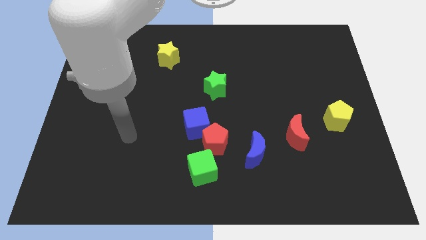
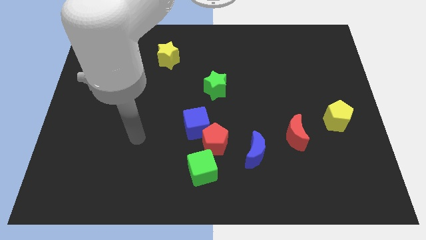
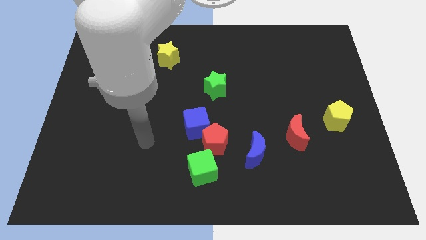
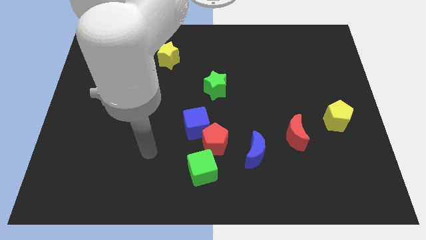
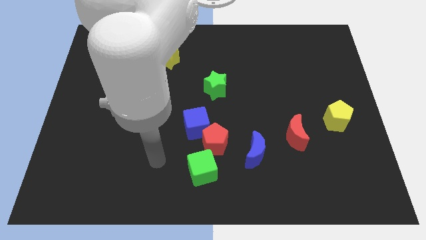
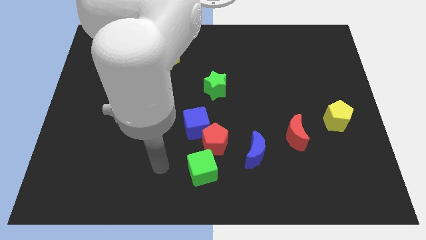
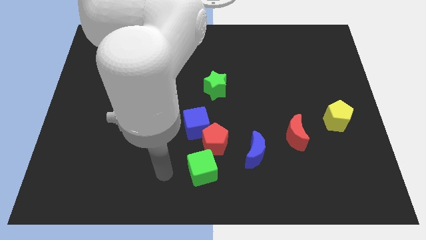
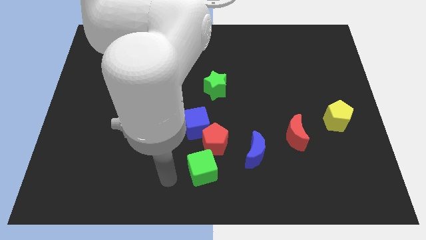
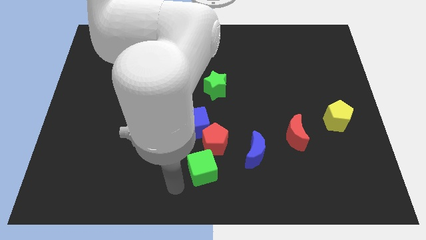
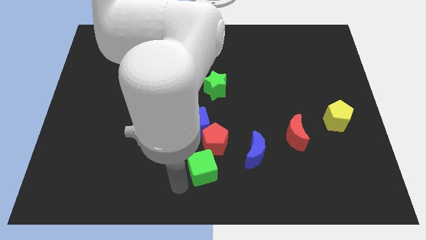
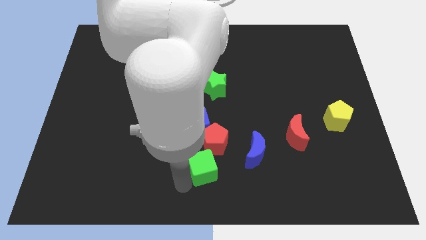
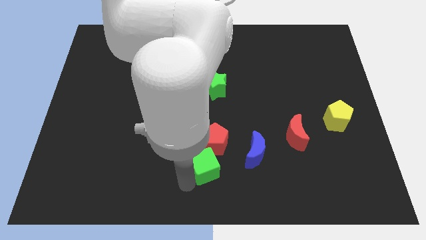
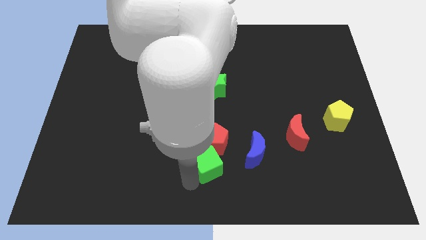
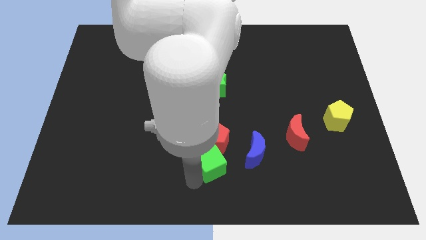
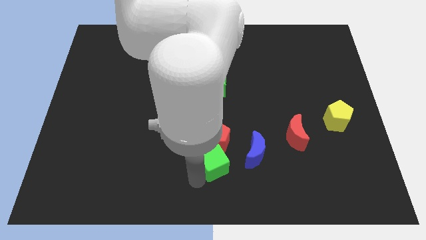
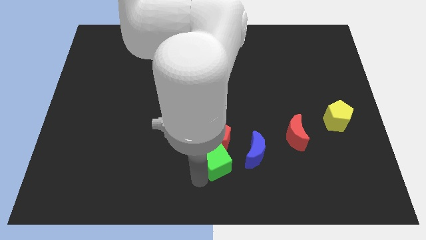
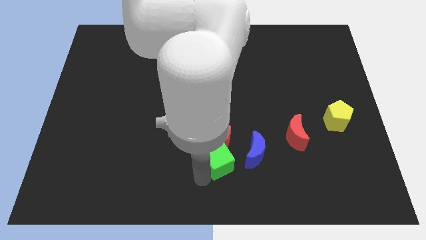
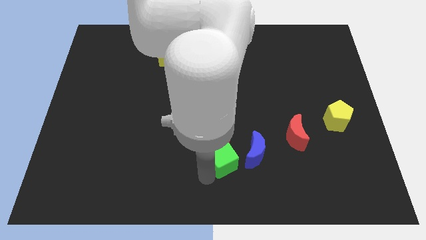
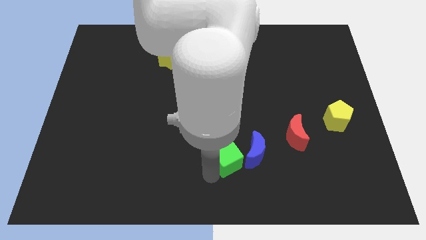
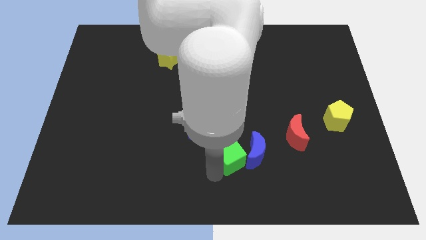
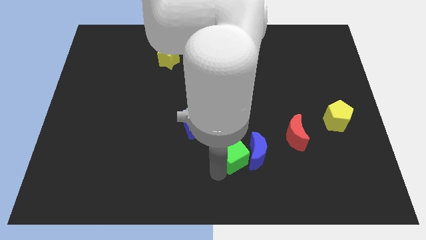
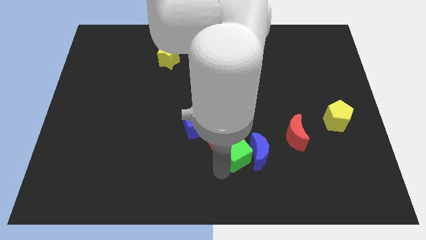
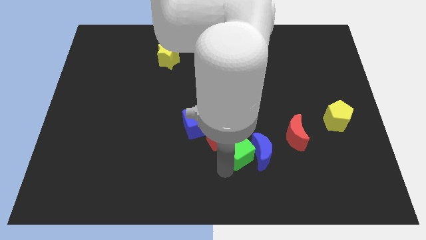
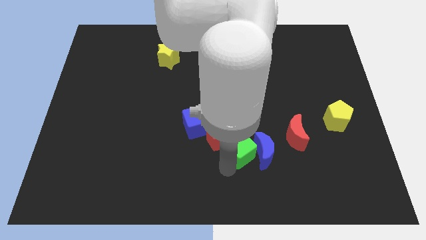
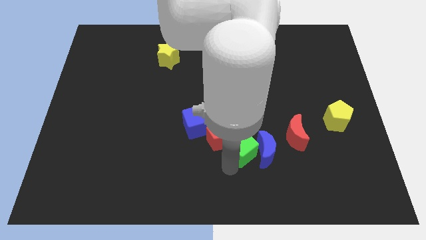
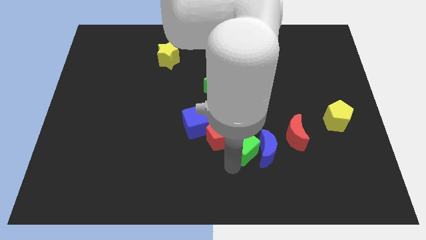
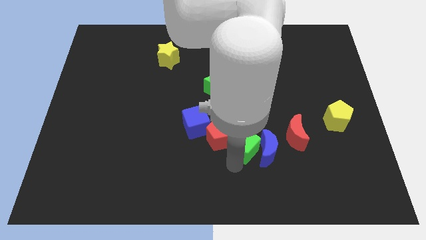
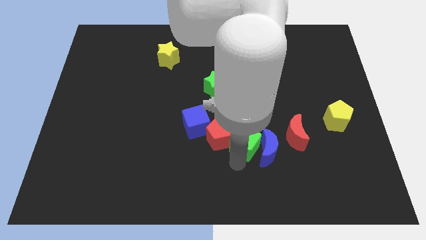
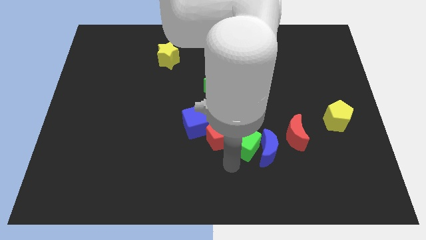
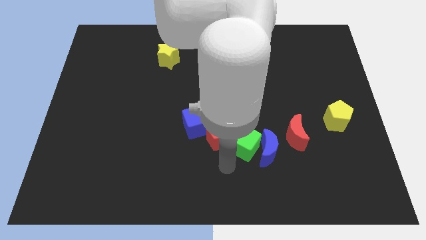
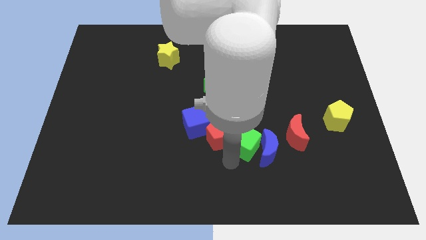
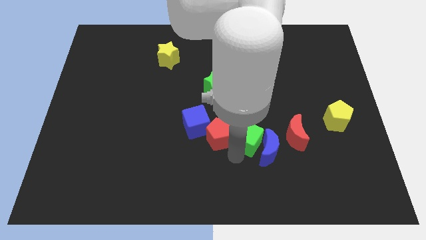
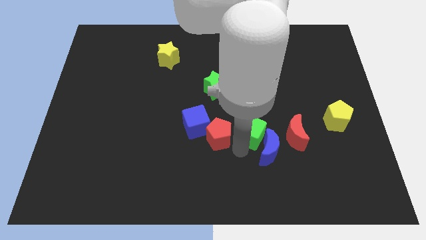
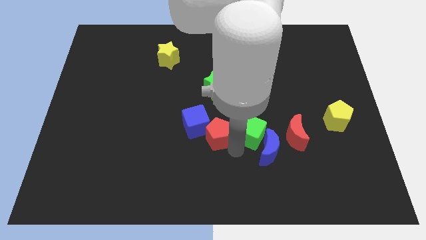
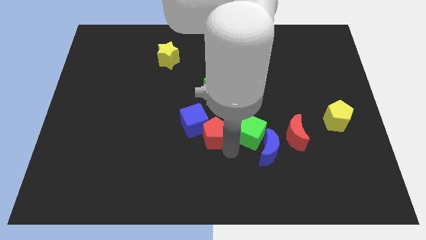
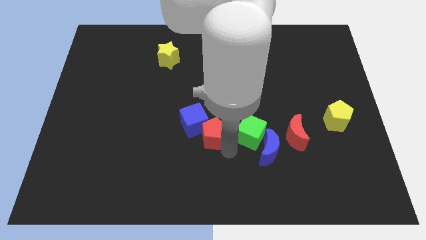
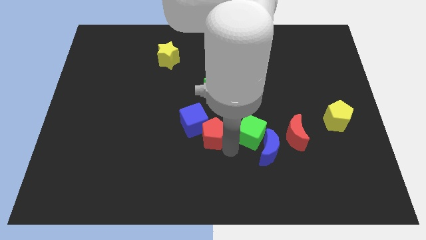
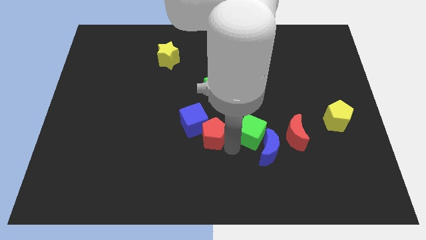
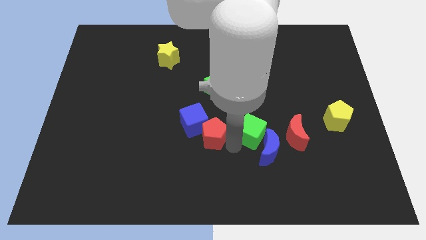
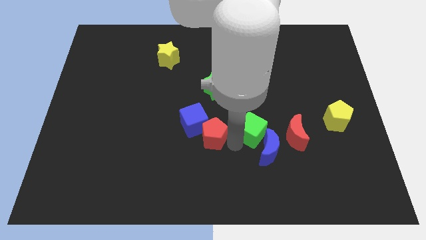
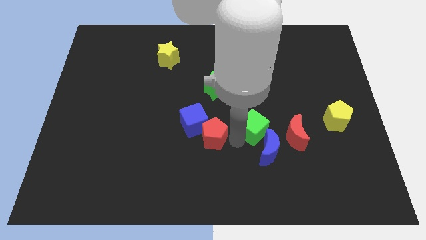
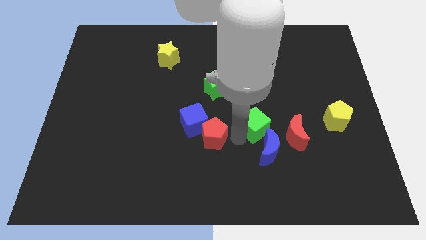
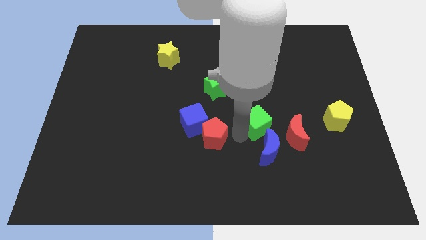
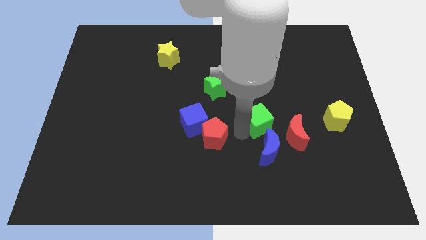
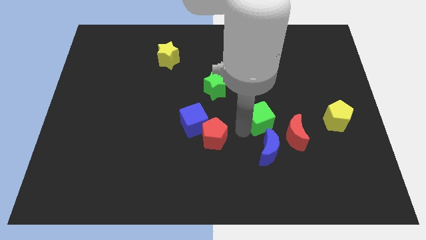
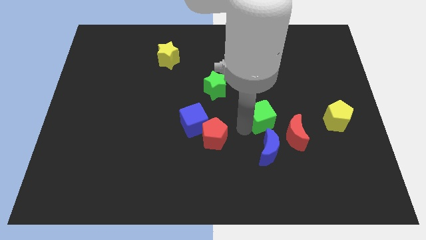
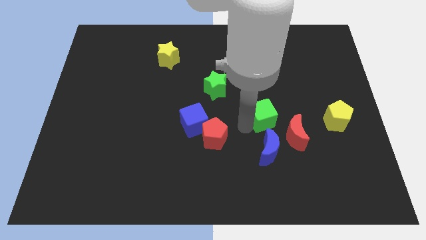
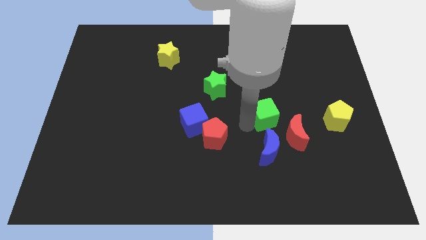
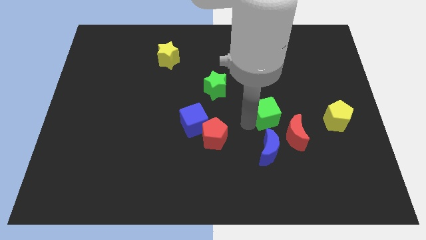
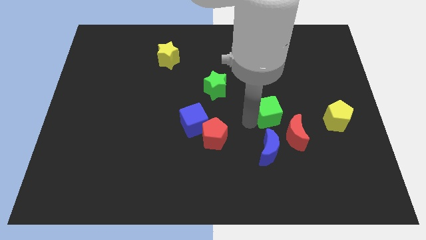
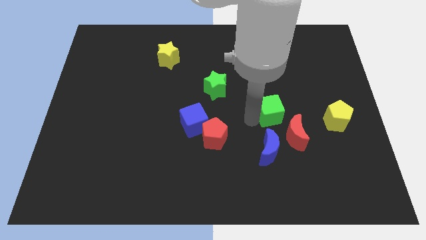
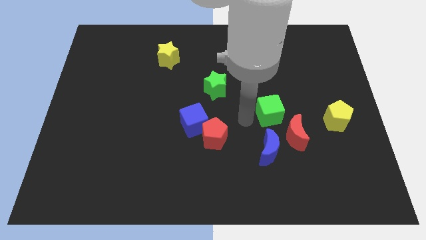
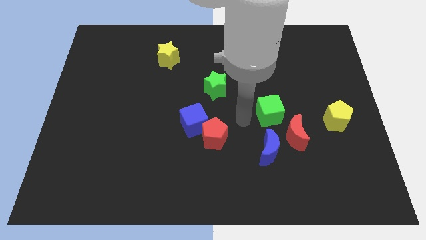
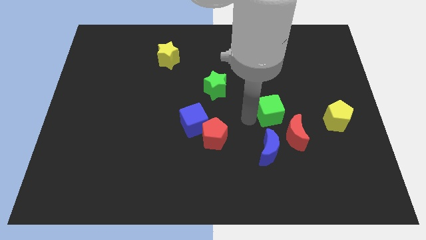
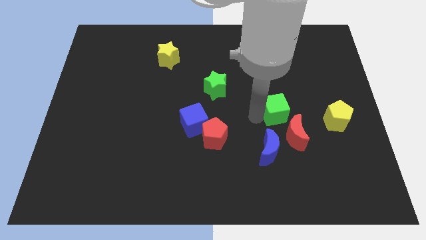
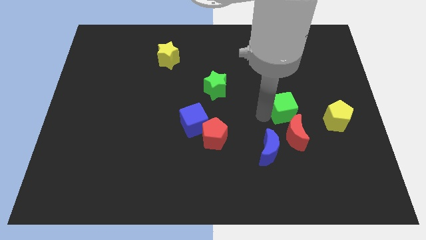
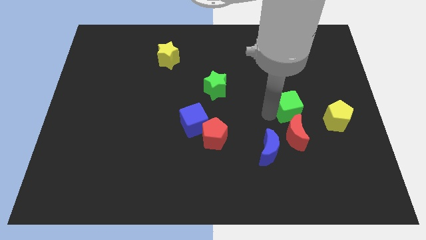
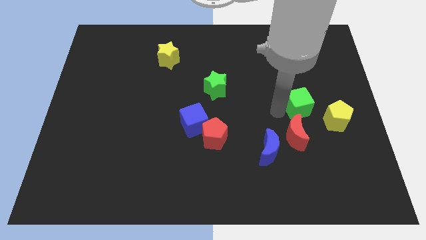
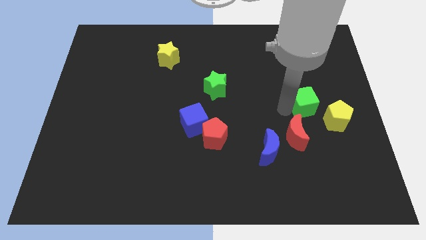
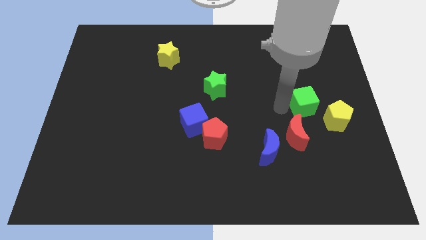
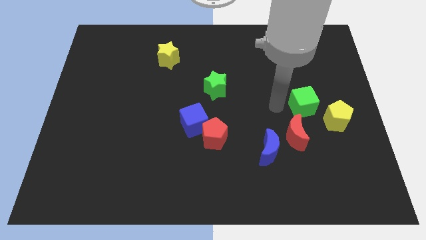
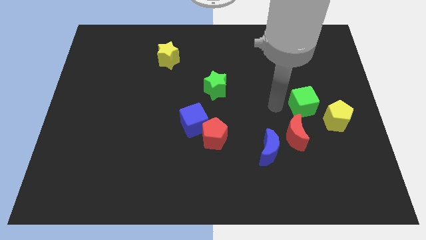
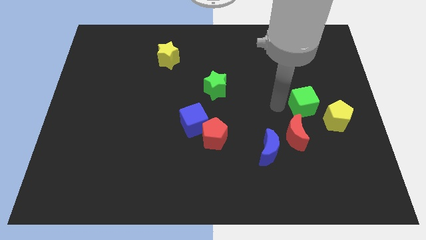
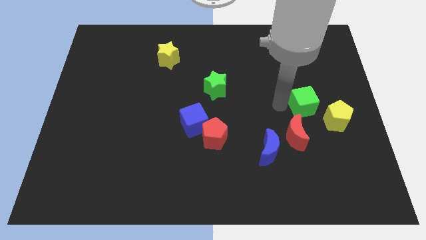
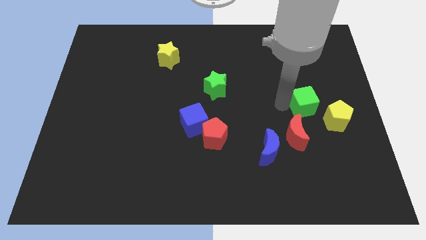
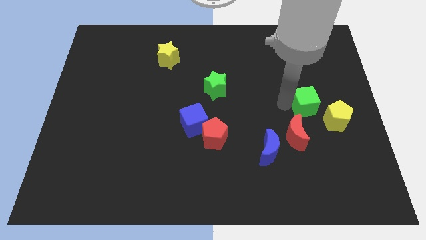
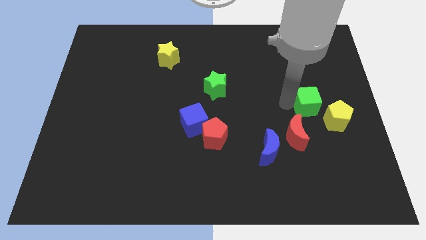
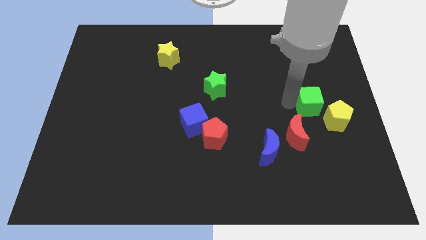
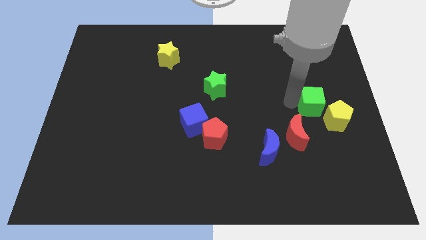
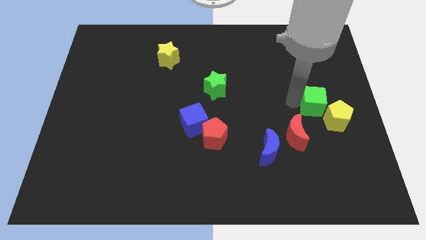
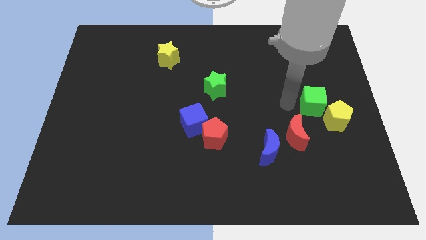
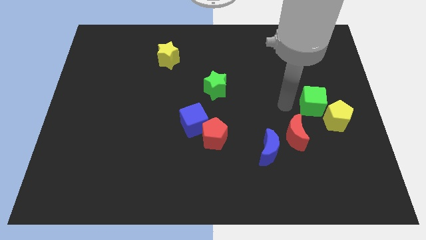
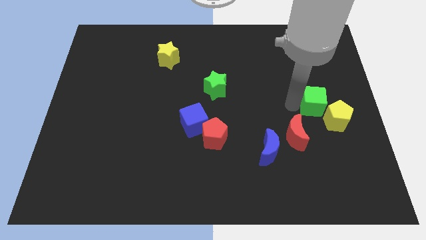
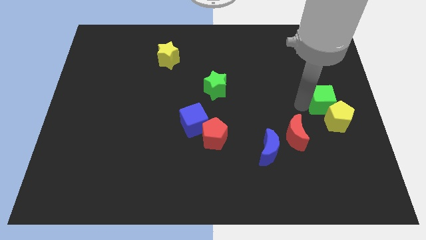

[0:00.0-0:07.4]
push the green cube to the right side
